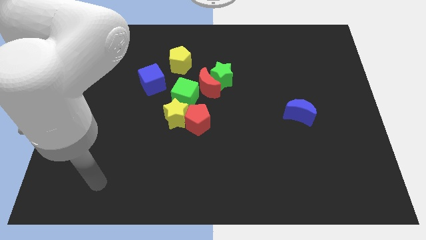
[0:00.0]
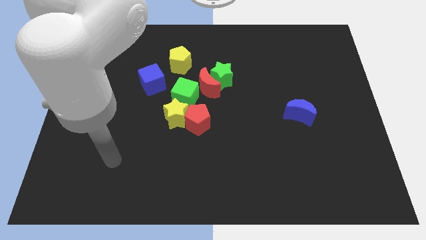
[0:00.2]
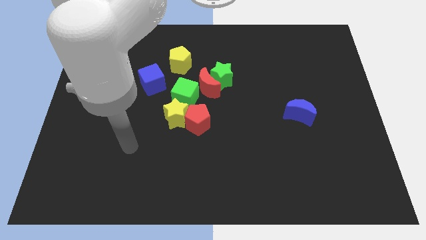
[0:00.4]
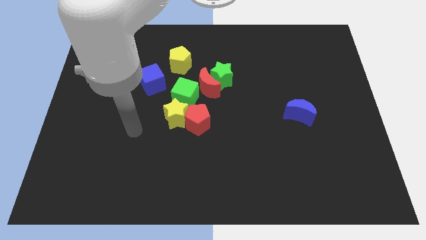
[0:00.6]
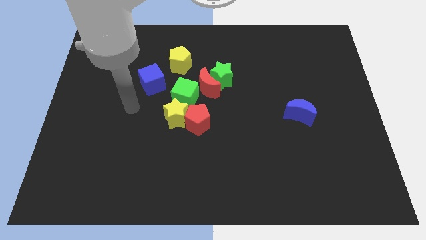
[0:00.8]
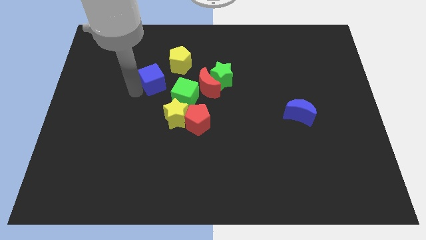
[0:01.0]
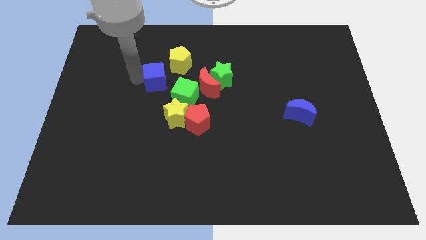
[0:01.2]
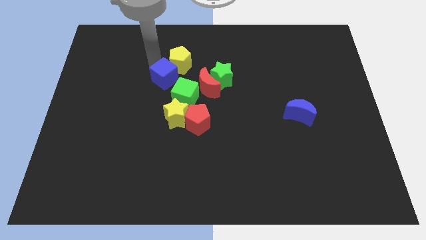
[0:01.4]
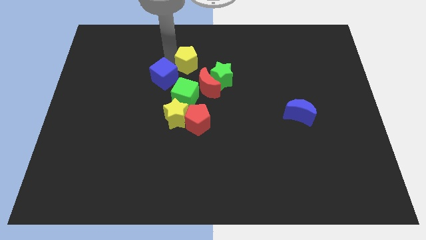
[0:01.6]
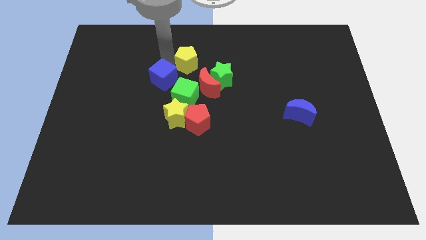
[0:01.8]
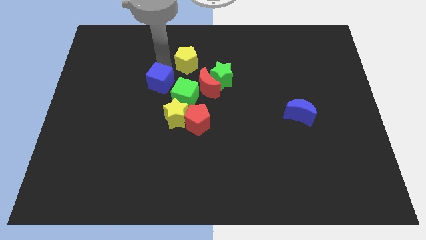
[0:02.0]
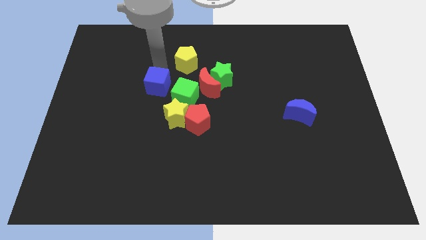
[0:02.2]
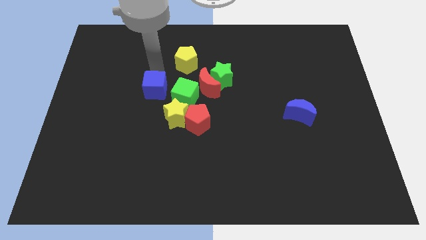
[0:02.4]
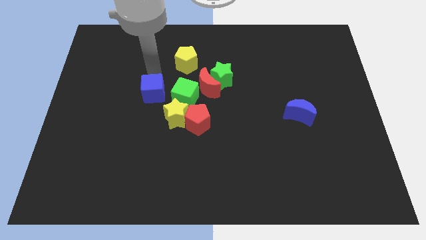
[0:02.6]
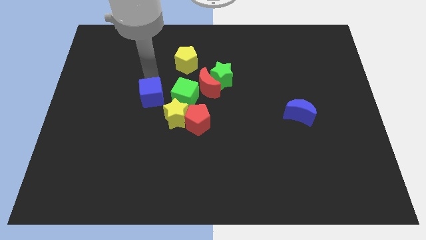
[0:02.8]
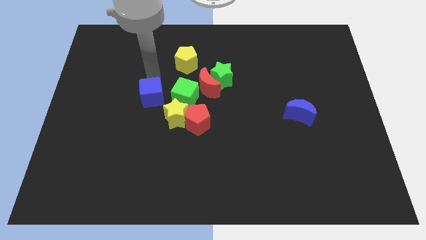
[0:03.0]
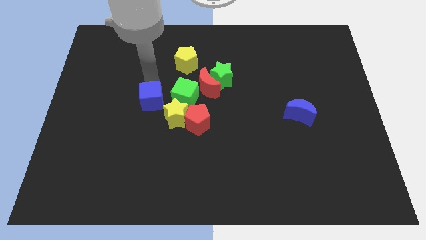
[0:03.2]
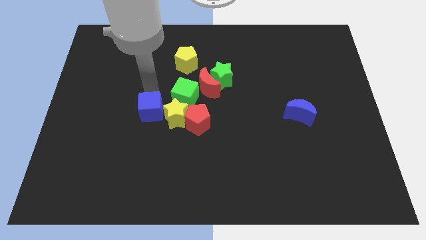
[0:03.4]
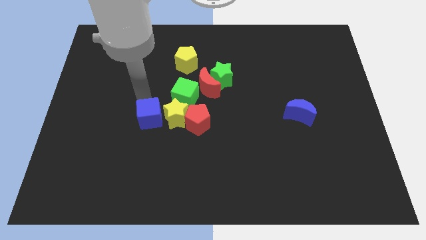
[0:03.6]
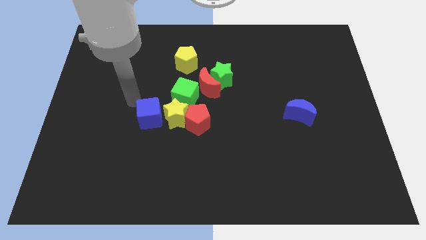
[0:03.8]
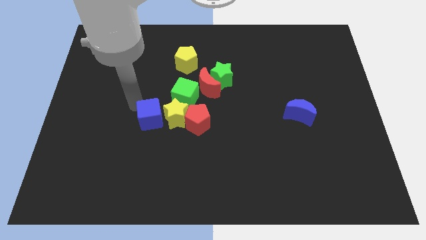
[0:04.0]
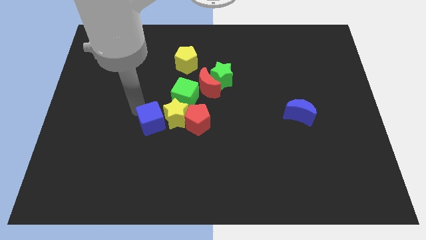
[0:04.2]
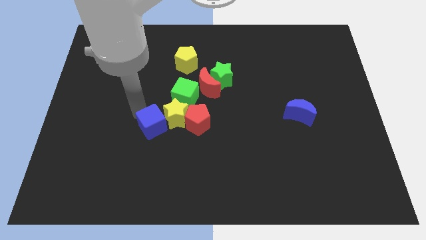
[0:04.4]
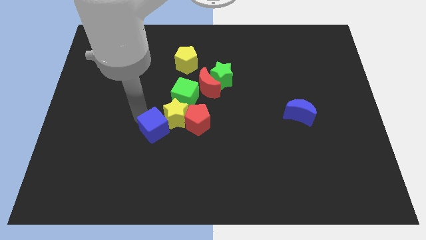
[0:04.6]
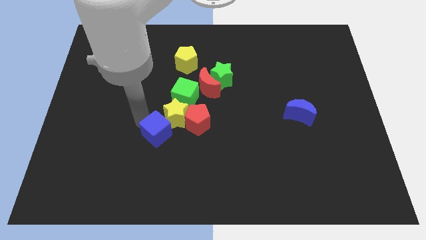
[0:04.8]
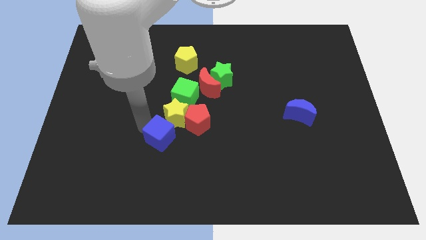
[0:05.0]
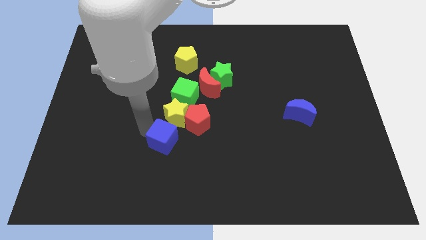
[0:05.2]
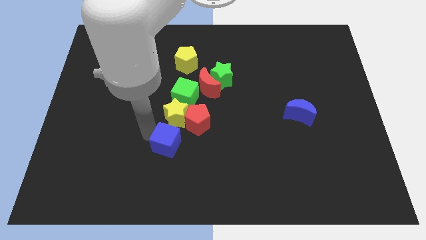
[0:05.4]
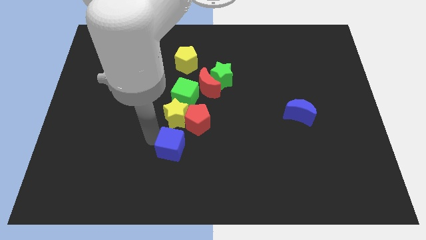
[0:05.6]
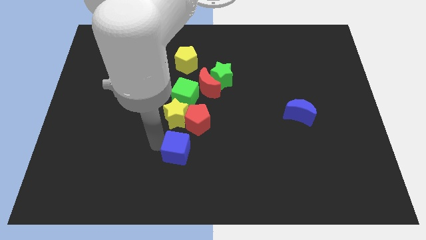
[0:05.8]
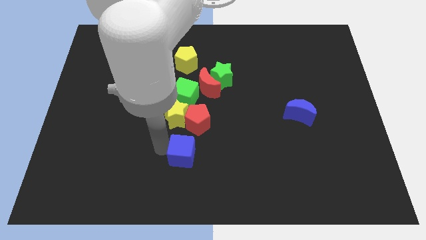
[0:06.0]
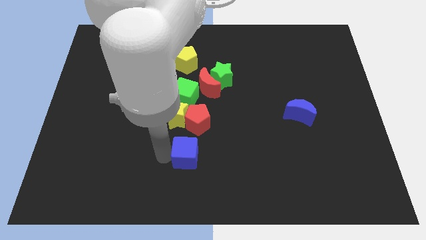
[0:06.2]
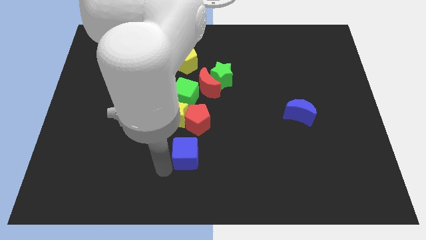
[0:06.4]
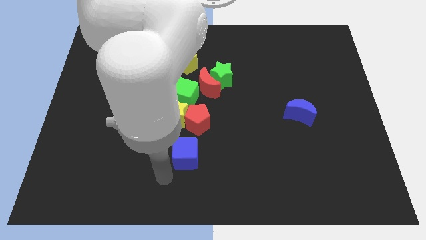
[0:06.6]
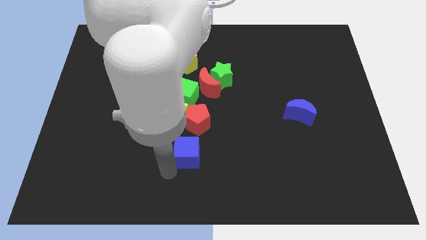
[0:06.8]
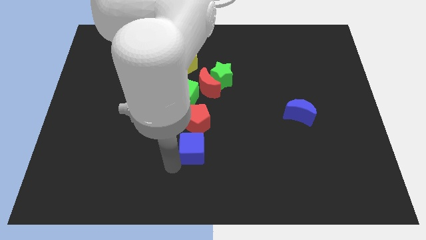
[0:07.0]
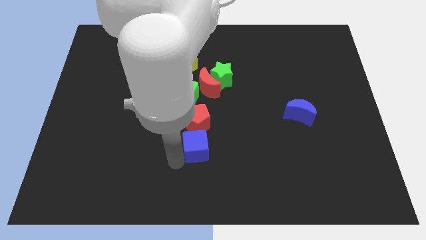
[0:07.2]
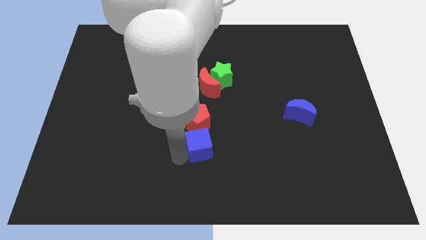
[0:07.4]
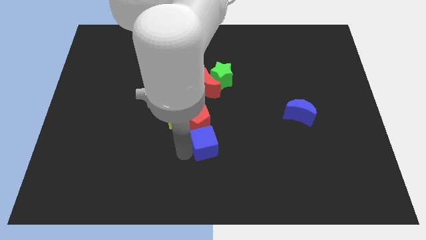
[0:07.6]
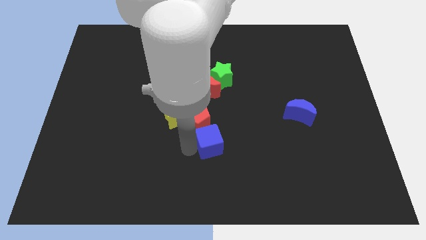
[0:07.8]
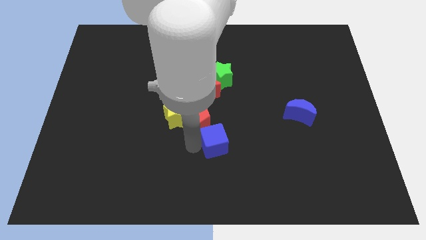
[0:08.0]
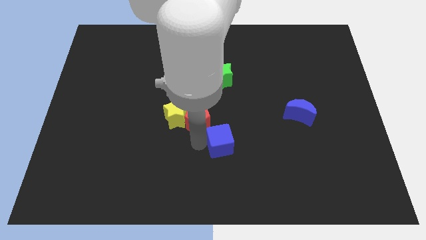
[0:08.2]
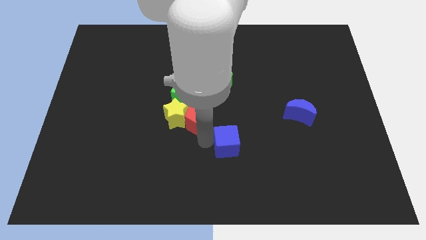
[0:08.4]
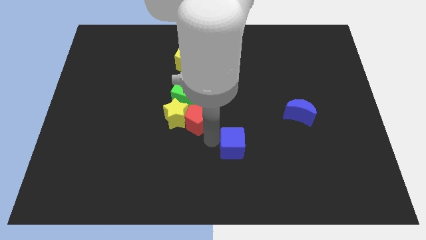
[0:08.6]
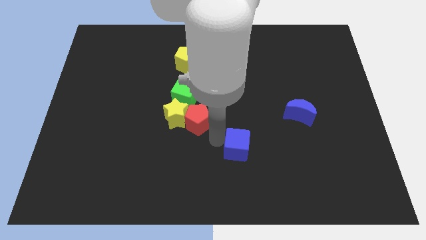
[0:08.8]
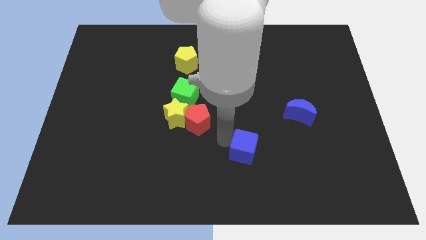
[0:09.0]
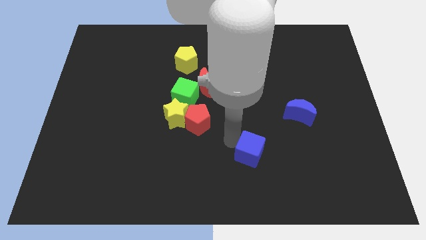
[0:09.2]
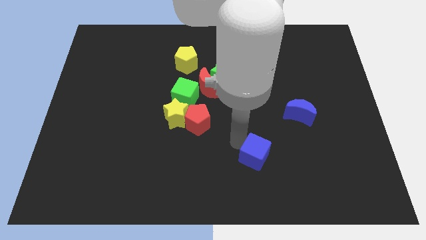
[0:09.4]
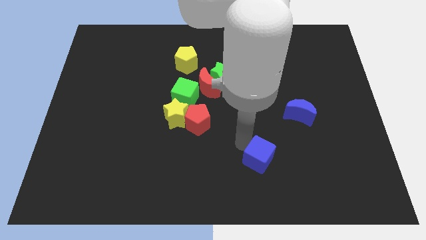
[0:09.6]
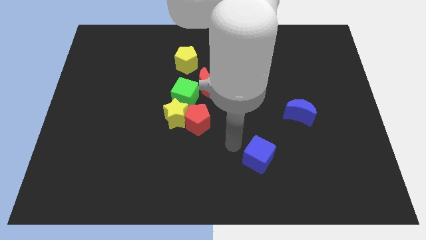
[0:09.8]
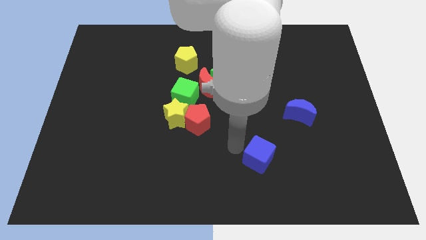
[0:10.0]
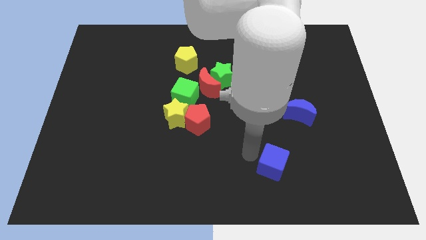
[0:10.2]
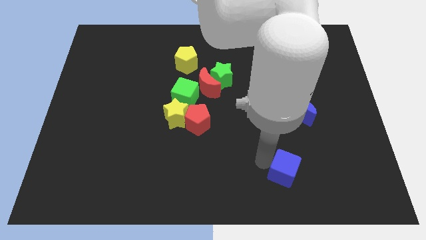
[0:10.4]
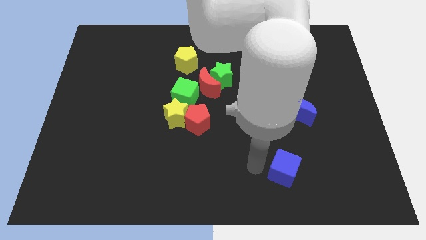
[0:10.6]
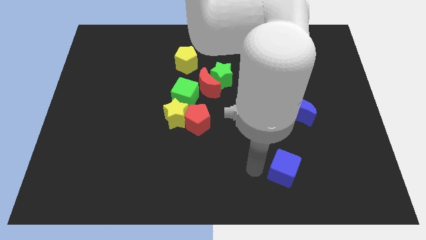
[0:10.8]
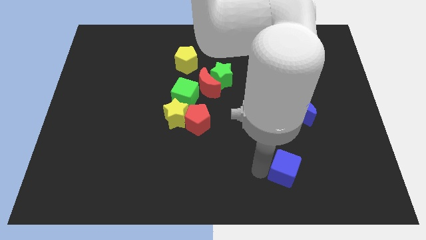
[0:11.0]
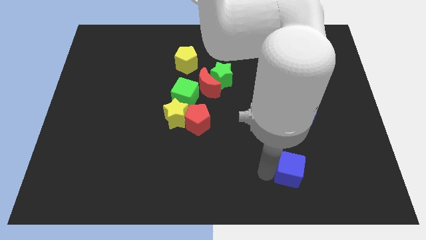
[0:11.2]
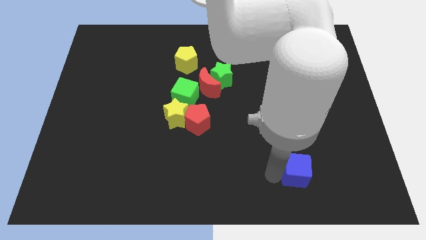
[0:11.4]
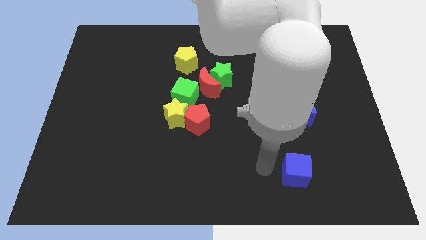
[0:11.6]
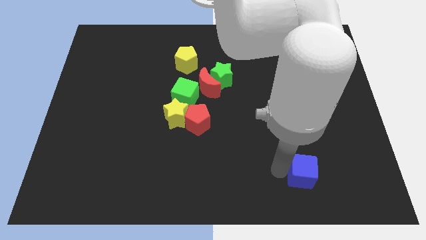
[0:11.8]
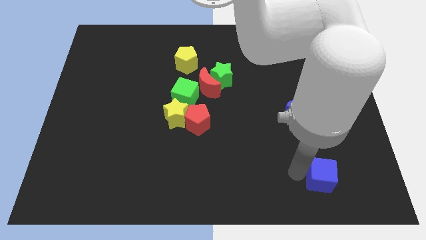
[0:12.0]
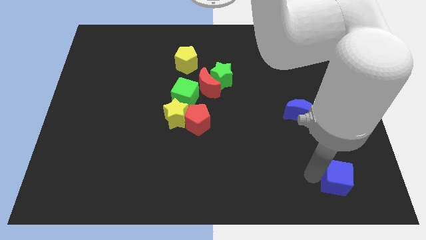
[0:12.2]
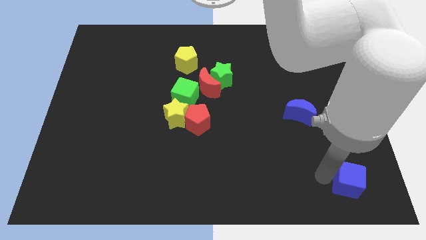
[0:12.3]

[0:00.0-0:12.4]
move the blue cube to the bottom right of the board

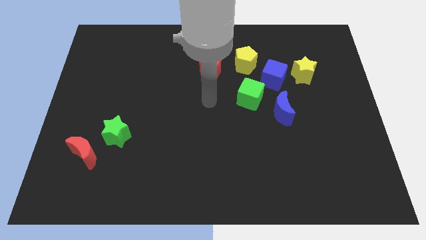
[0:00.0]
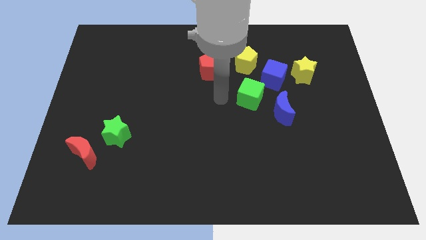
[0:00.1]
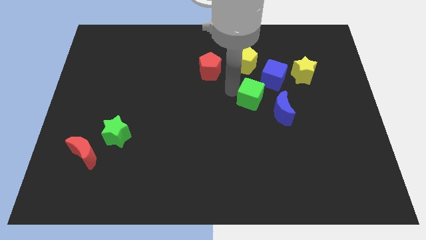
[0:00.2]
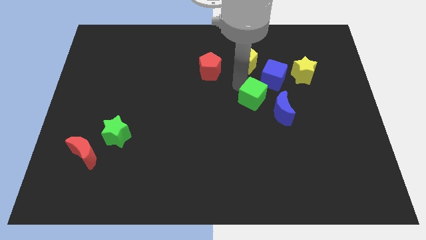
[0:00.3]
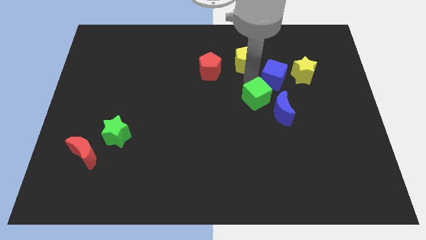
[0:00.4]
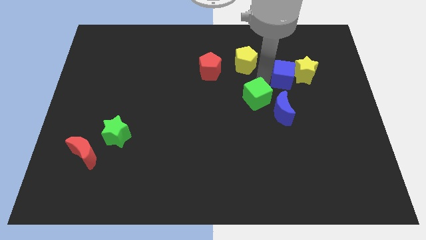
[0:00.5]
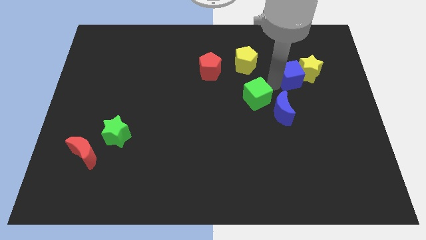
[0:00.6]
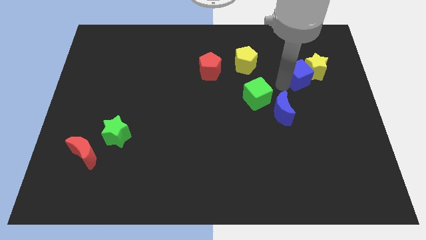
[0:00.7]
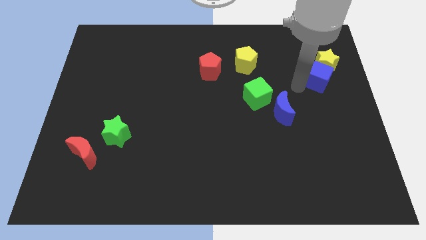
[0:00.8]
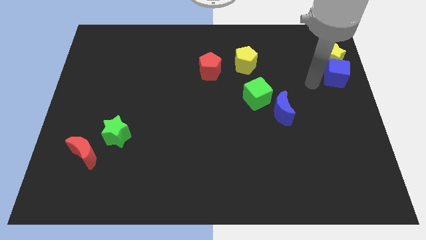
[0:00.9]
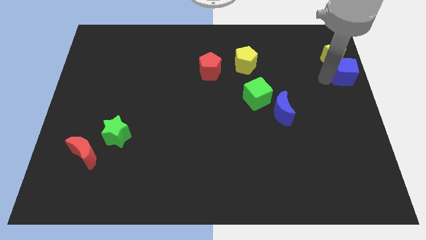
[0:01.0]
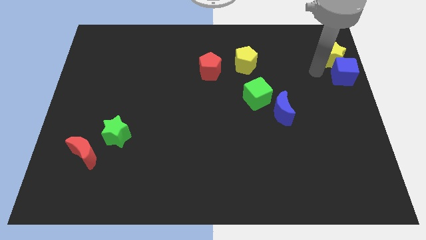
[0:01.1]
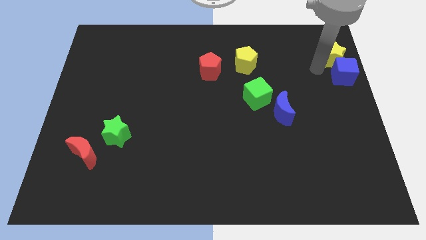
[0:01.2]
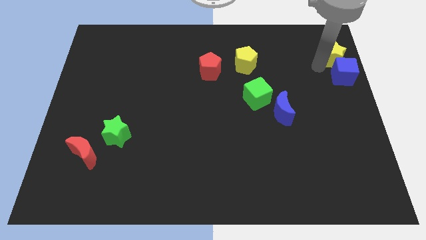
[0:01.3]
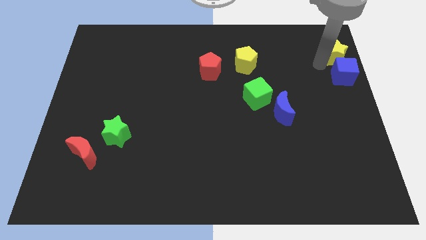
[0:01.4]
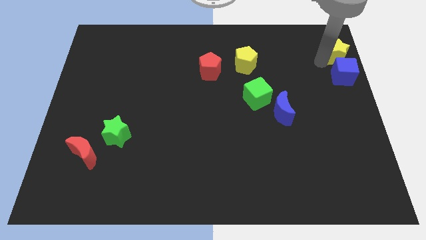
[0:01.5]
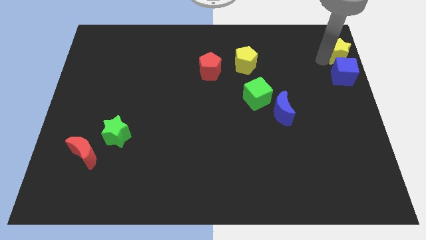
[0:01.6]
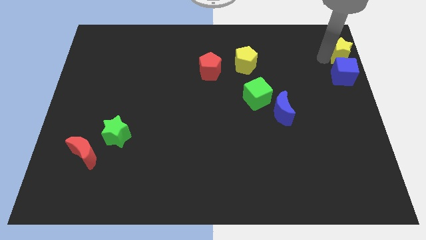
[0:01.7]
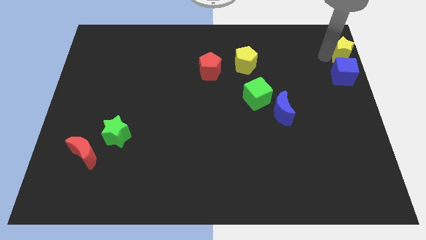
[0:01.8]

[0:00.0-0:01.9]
push the yellow star to the upper right corner
